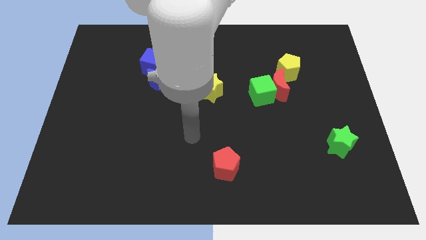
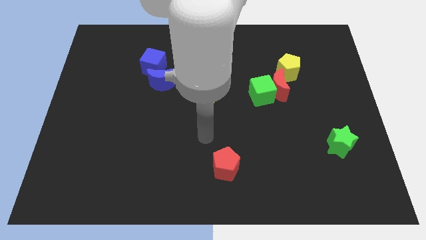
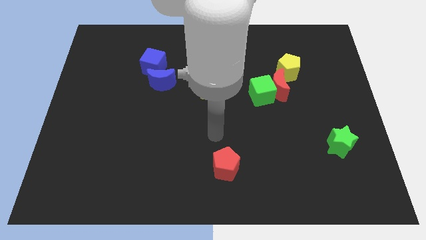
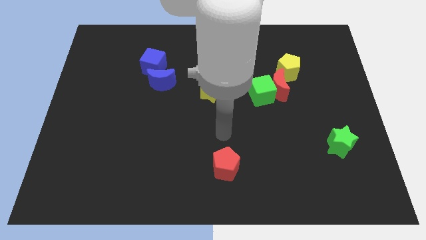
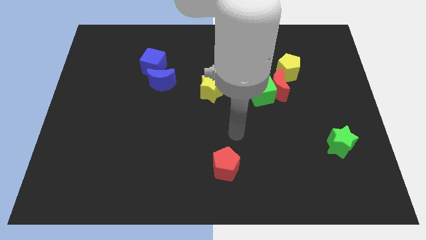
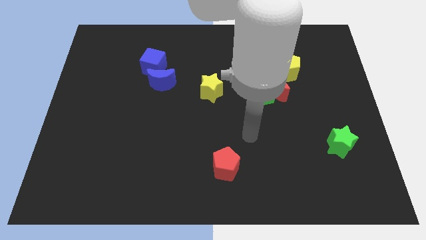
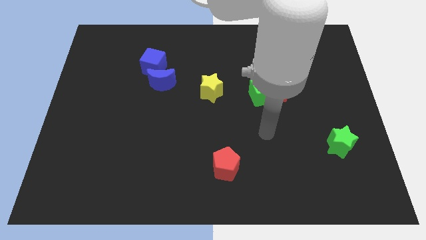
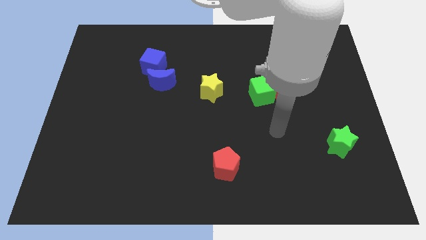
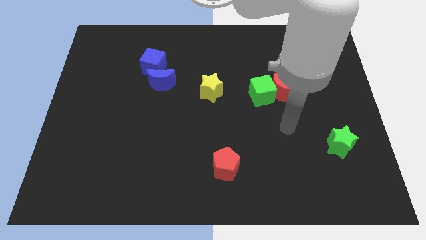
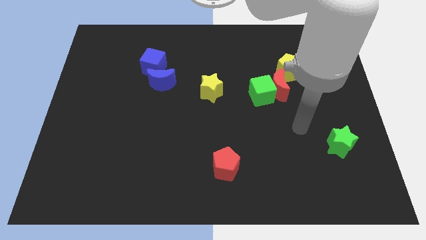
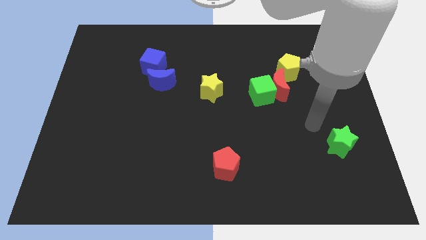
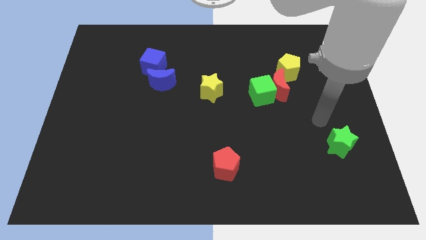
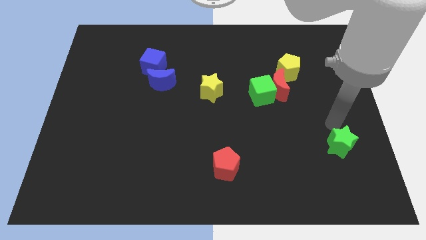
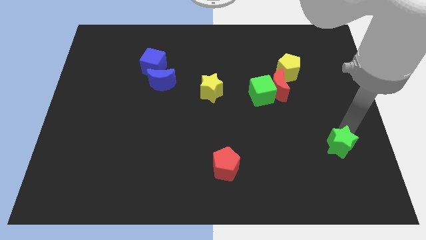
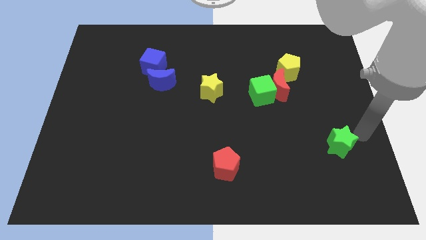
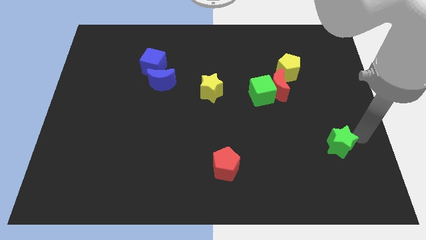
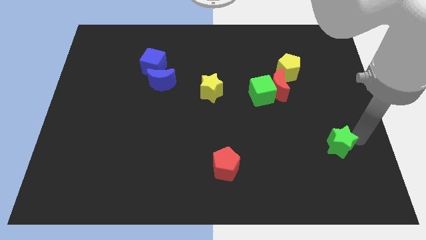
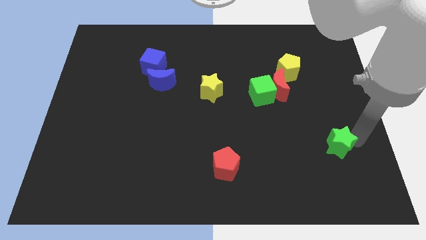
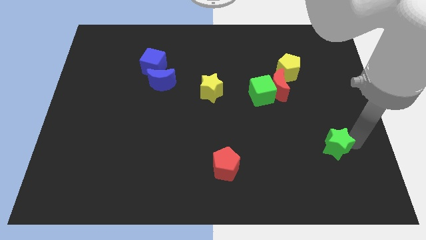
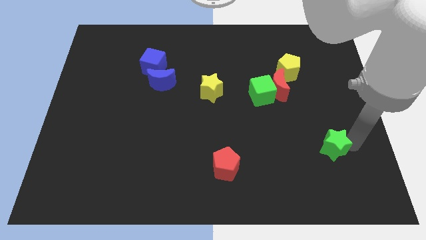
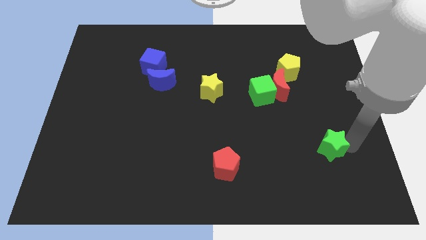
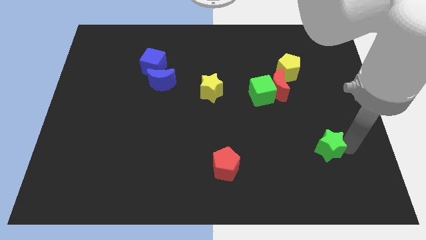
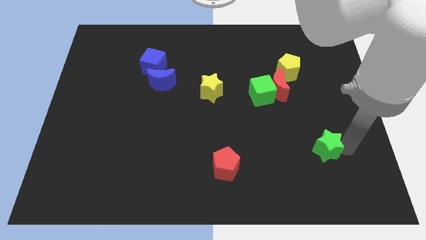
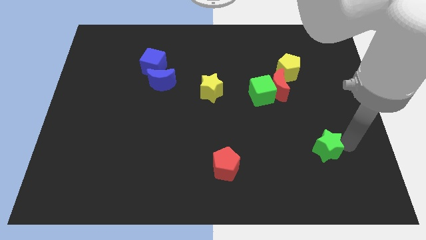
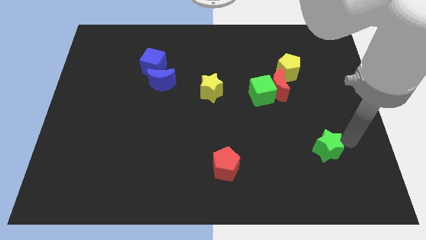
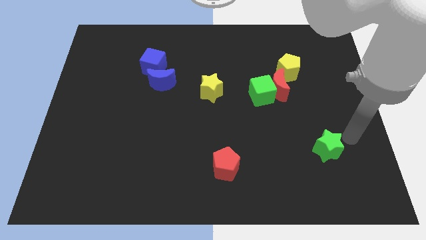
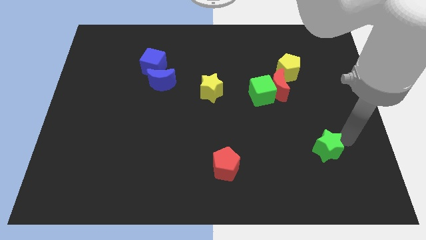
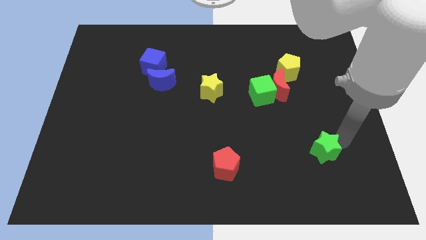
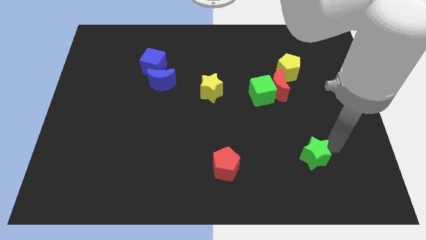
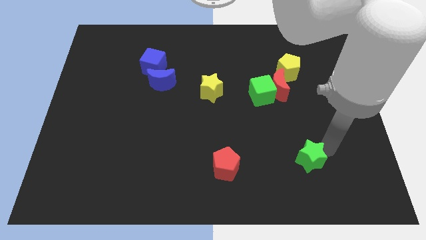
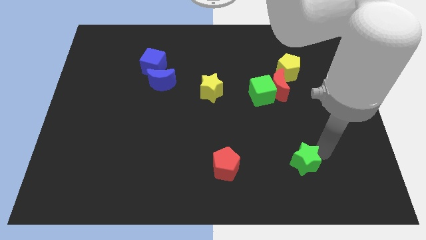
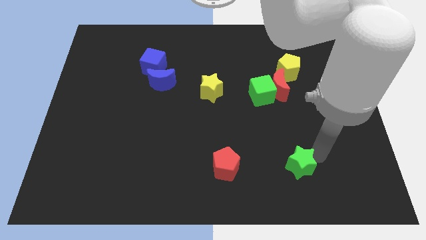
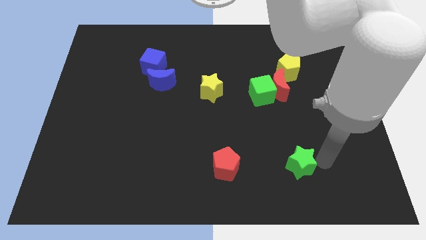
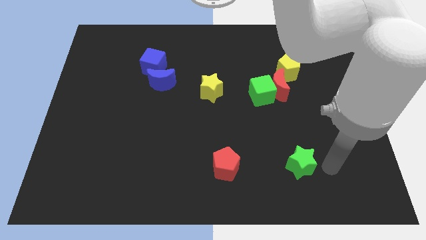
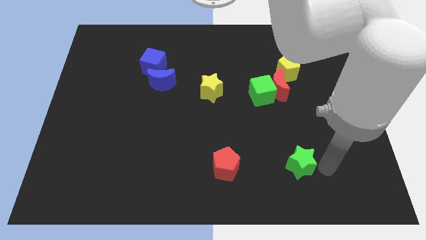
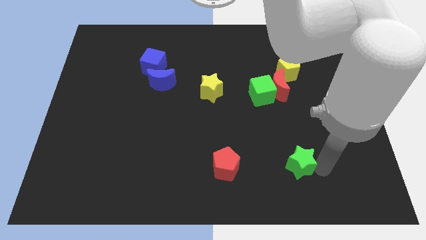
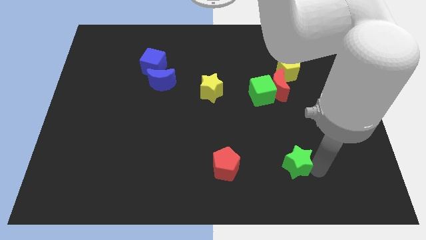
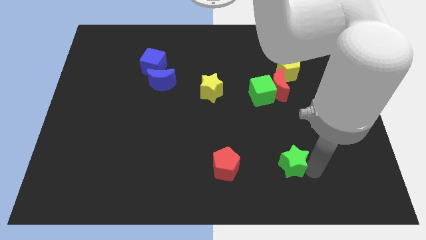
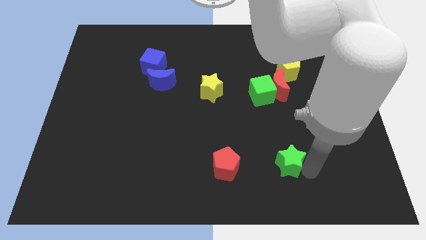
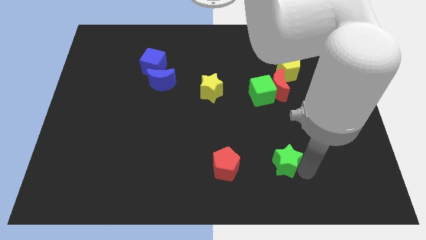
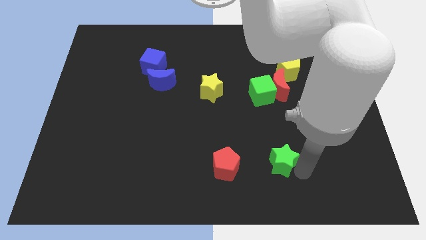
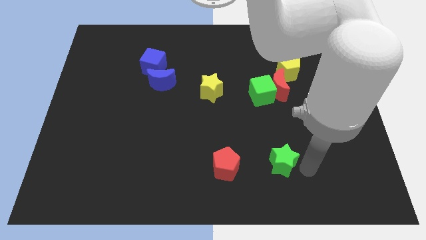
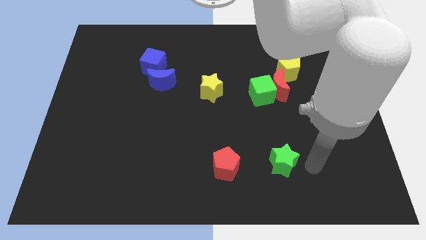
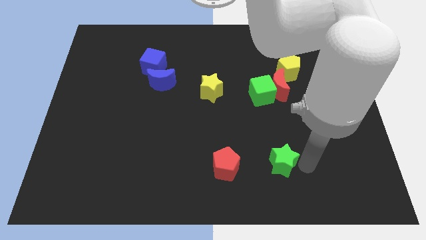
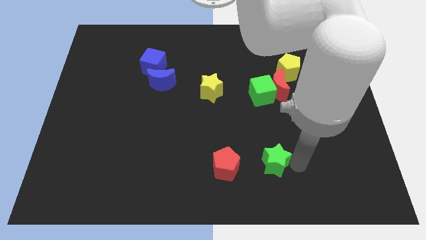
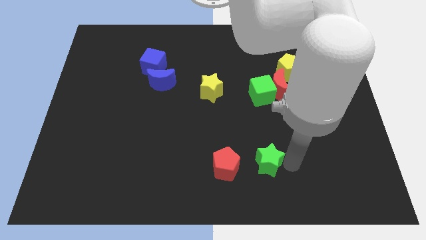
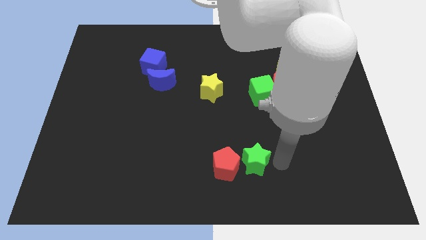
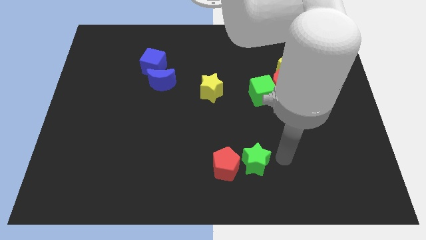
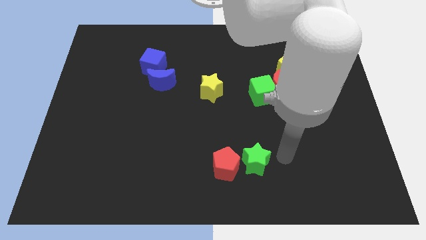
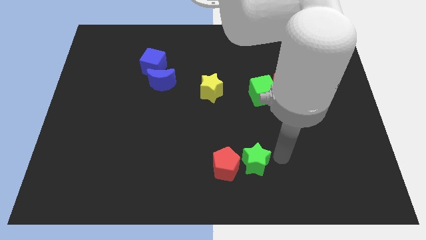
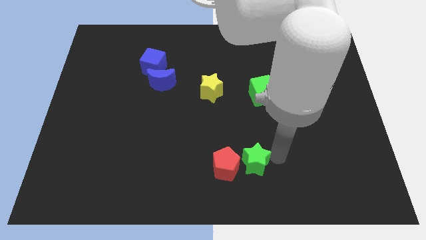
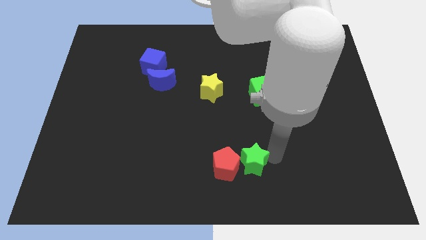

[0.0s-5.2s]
move the green star next to the red pentagon

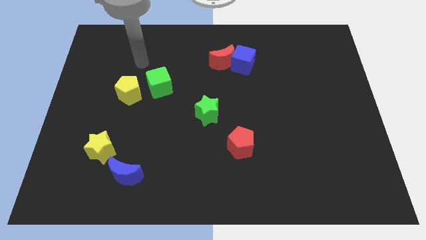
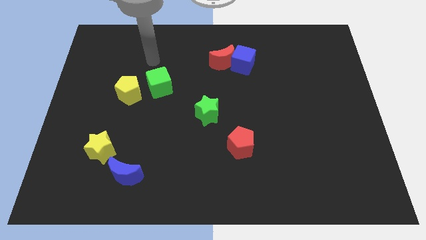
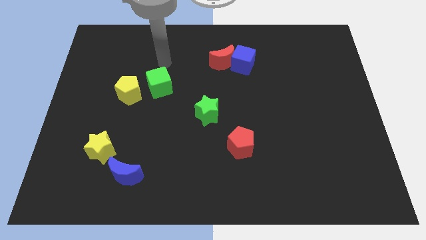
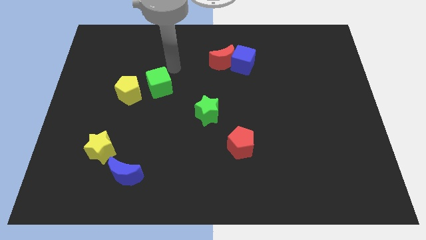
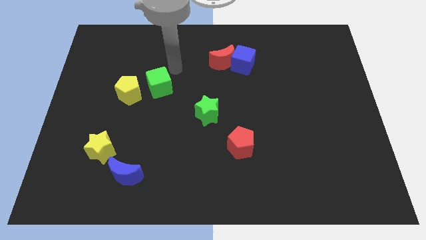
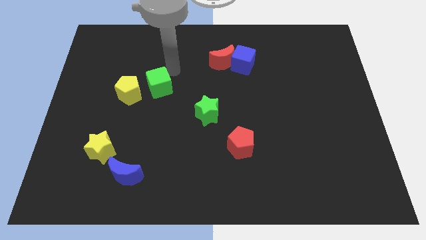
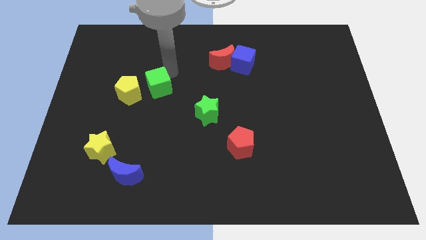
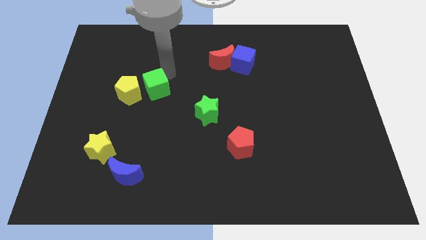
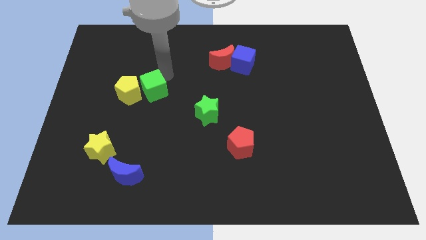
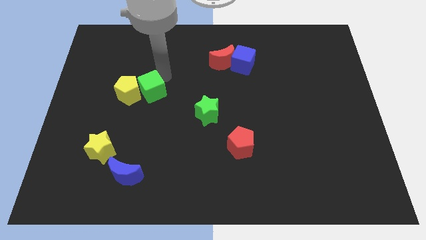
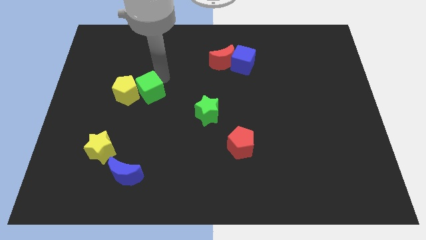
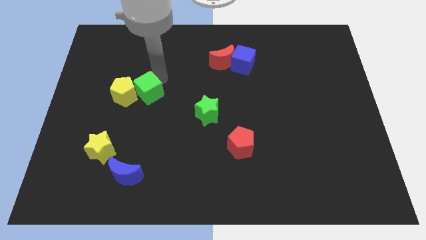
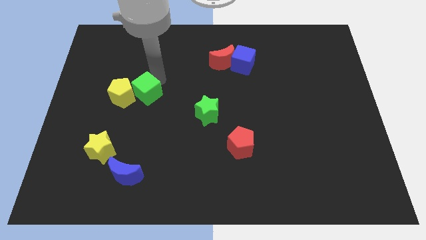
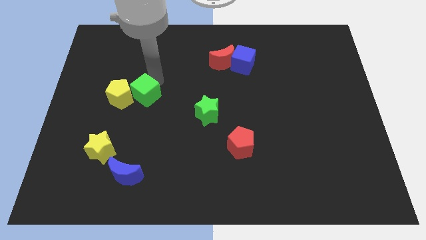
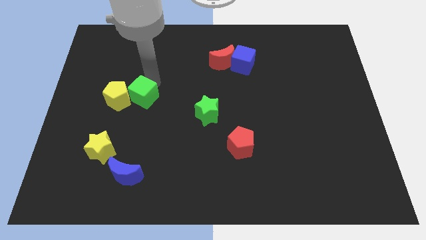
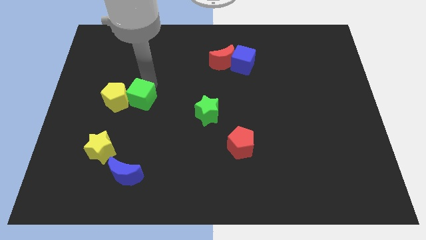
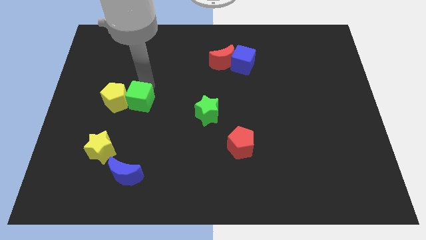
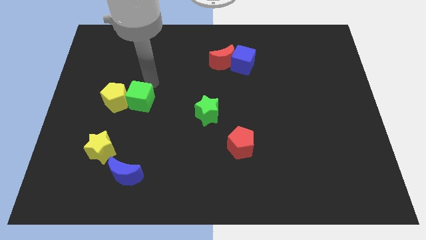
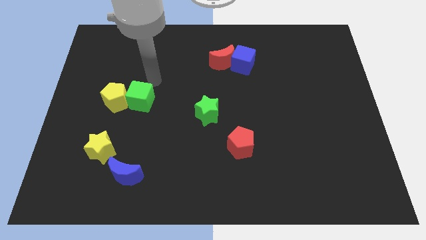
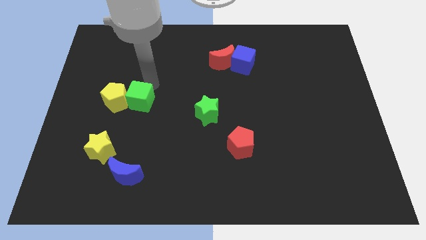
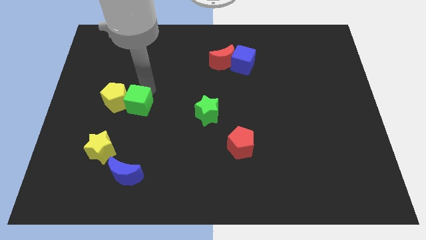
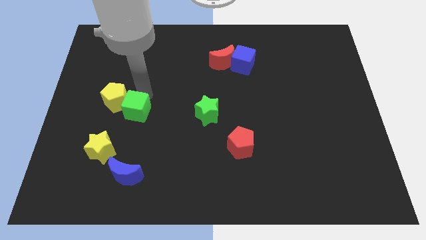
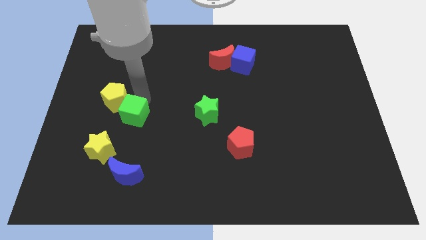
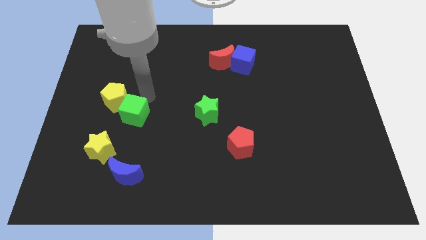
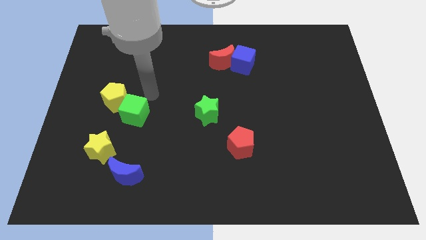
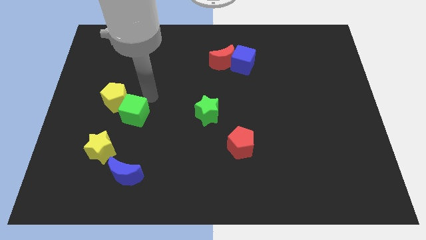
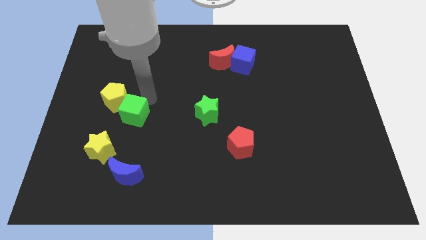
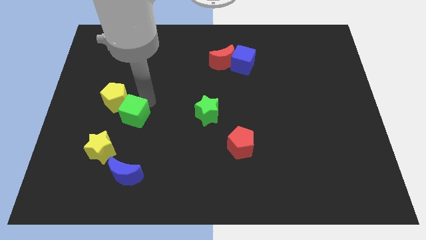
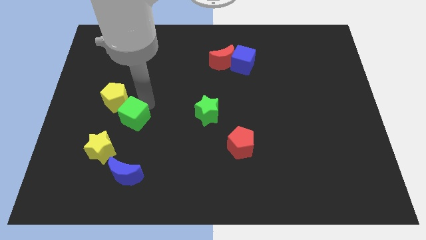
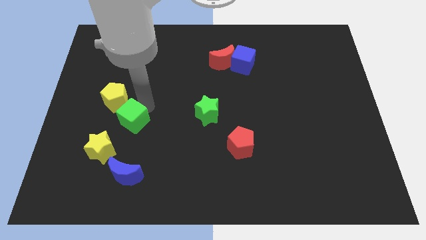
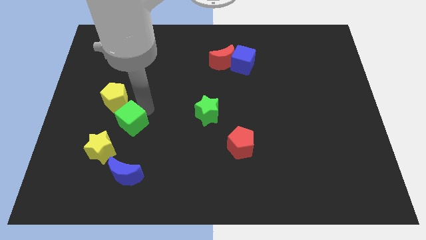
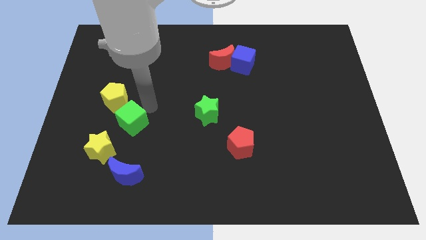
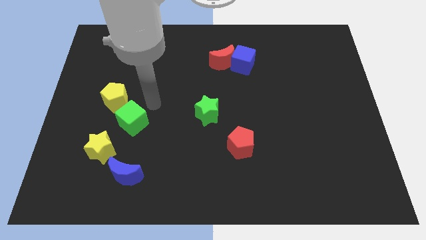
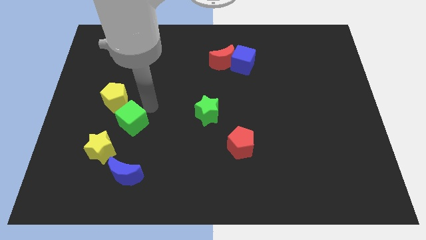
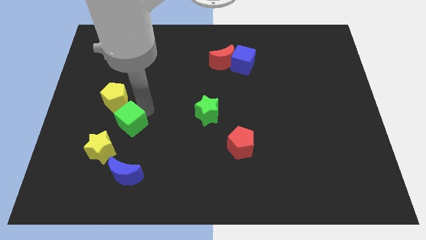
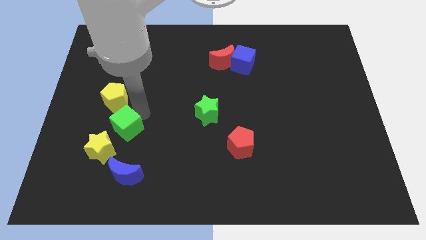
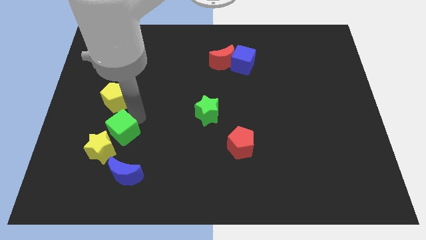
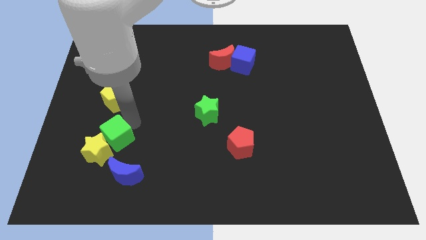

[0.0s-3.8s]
push the green cube to the yellow star
